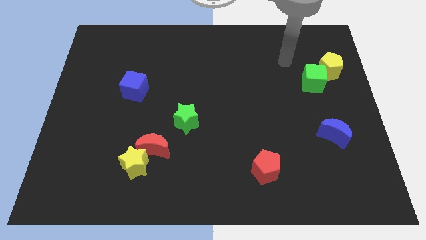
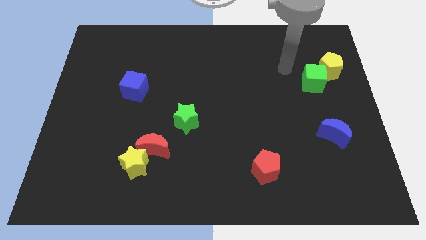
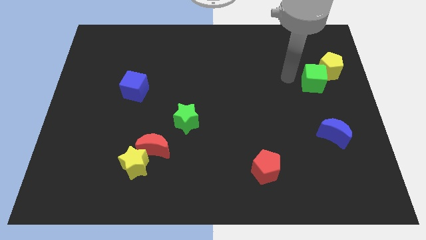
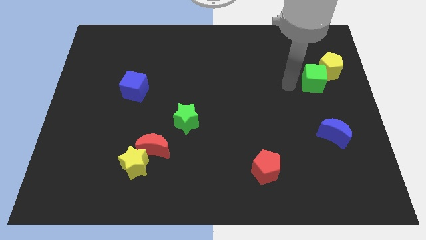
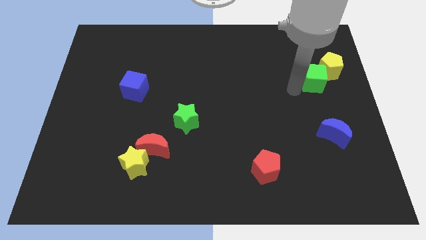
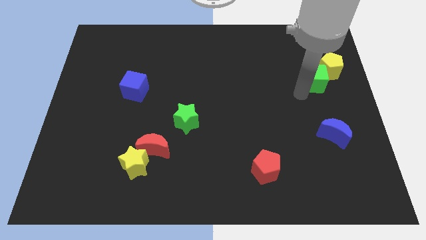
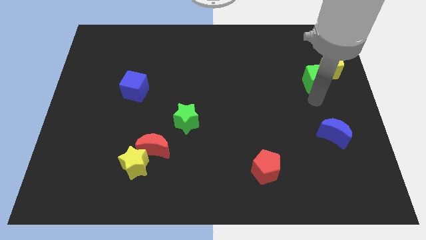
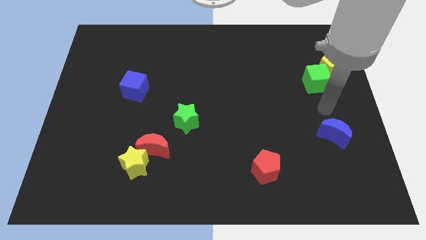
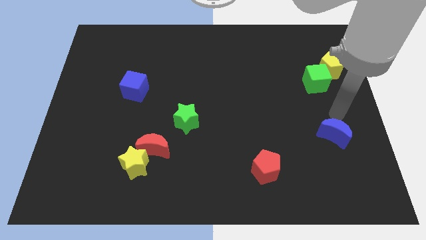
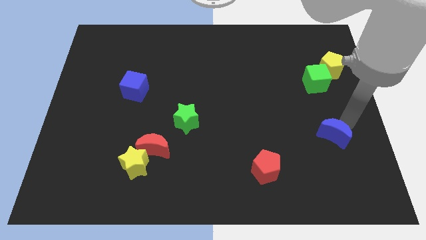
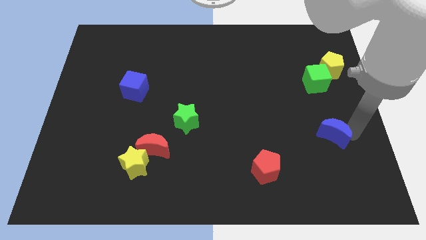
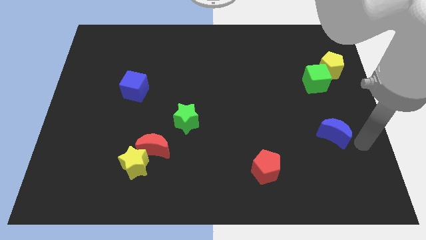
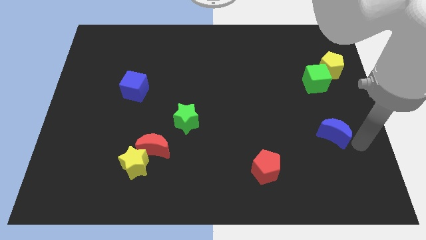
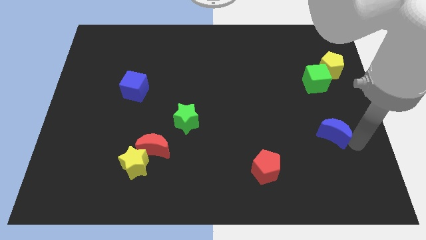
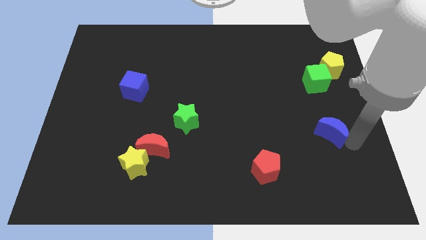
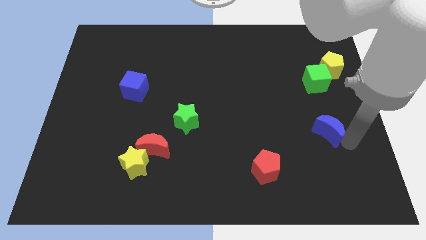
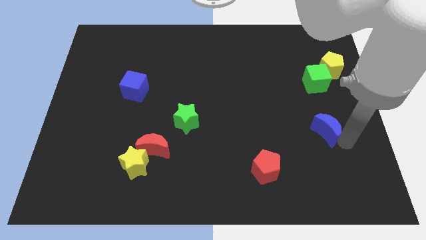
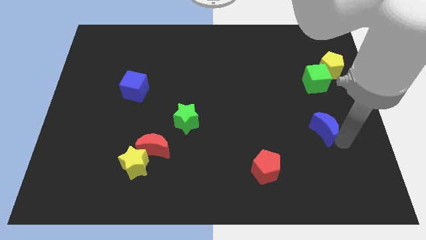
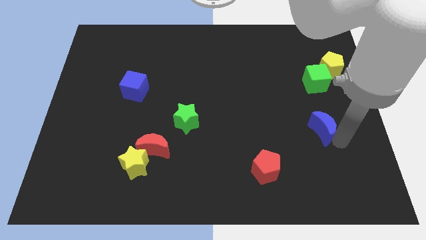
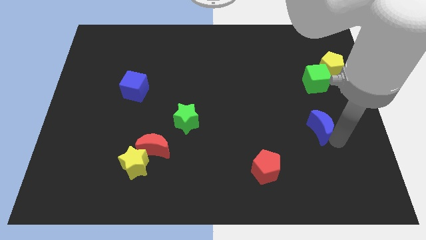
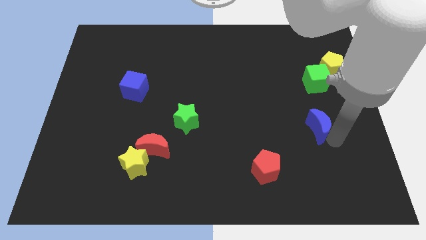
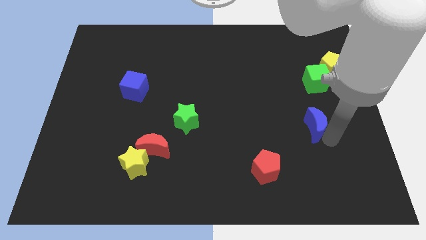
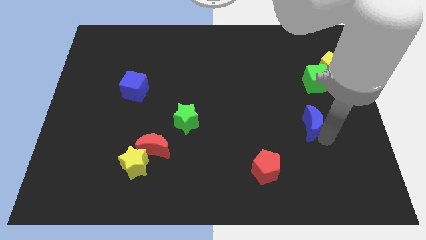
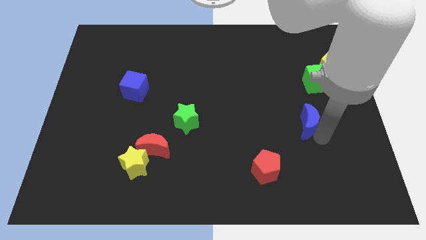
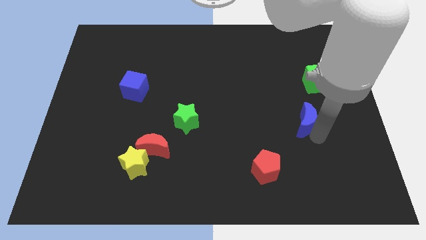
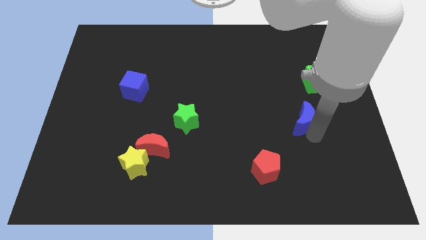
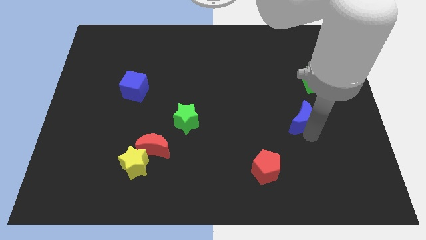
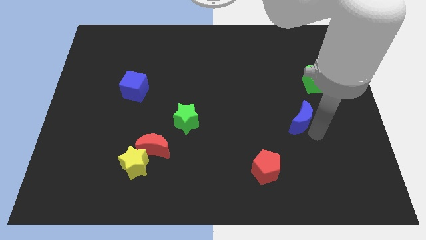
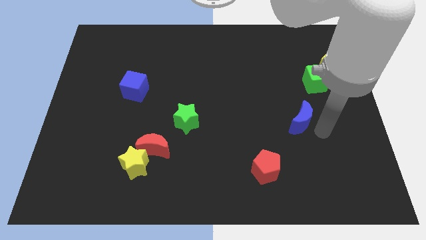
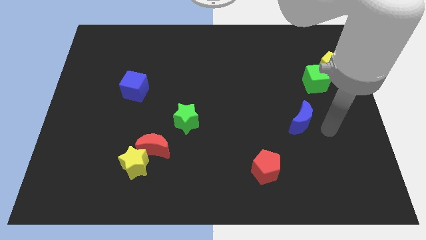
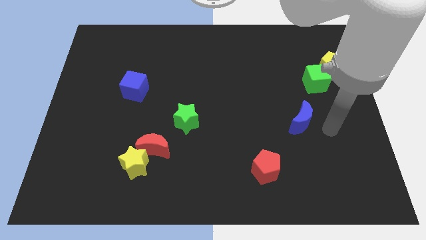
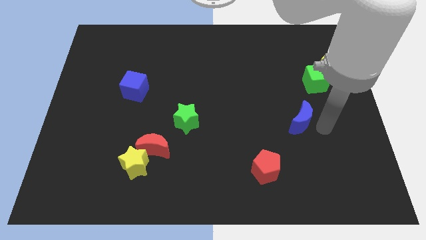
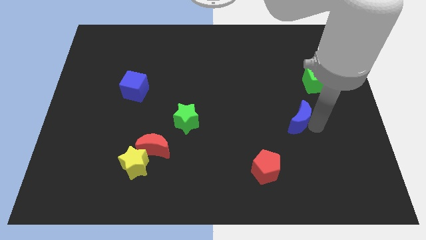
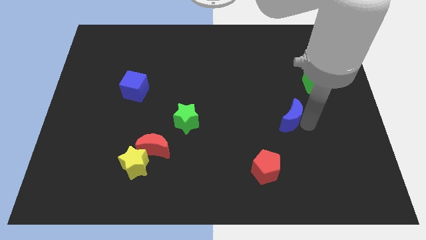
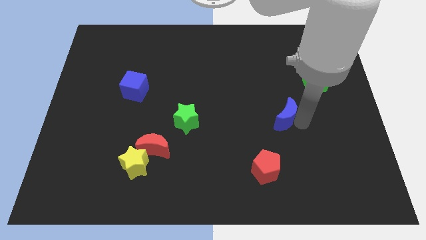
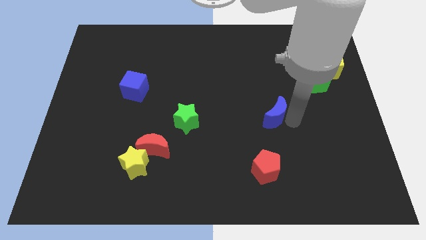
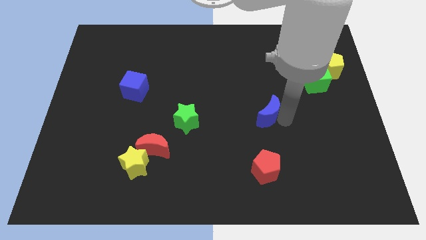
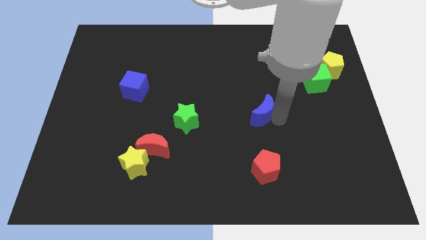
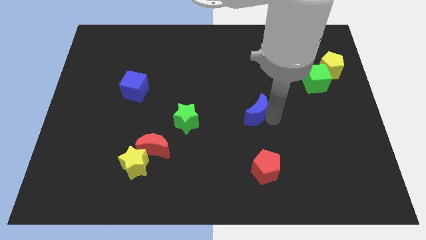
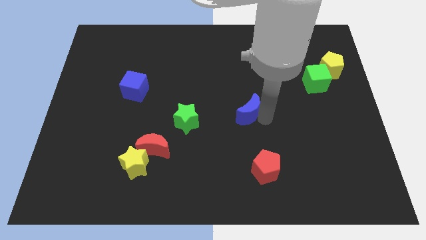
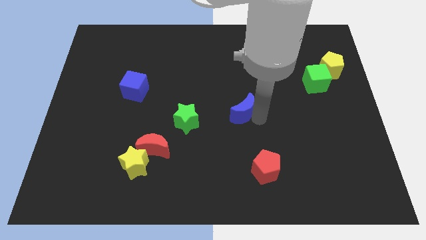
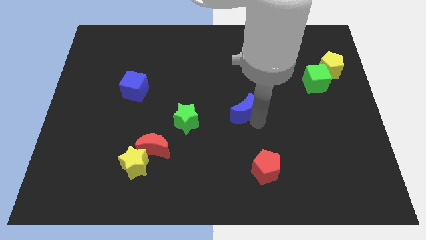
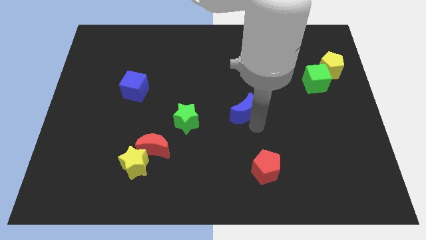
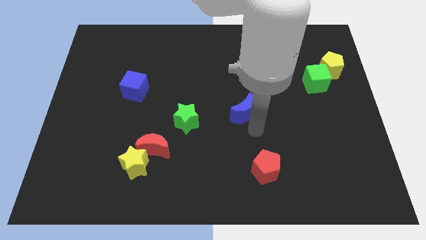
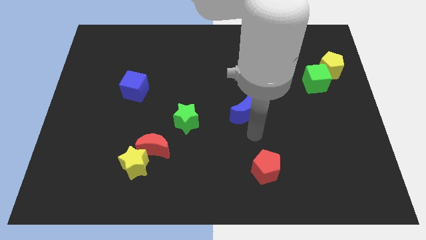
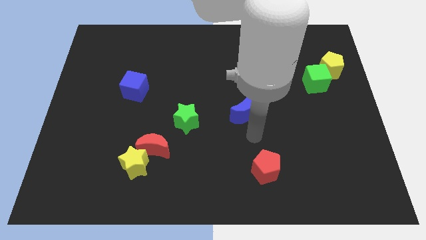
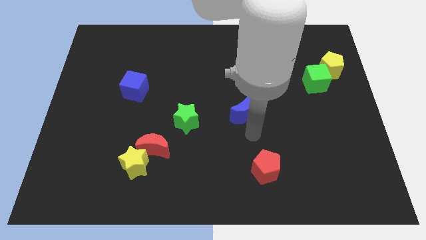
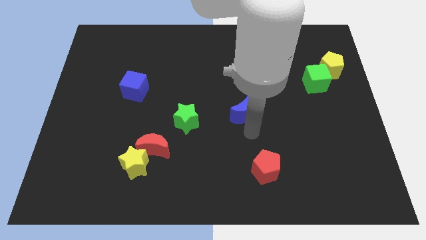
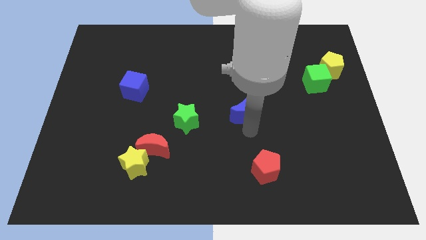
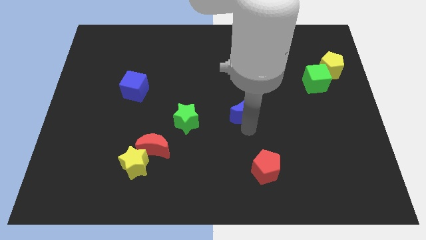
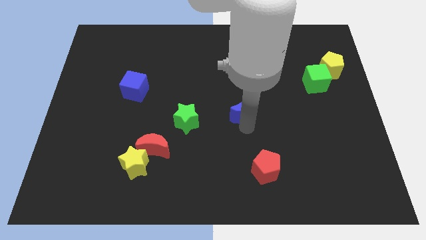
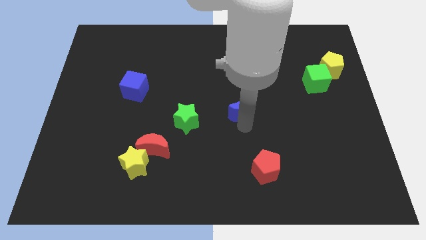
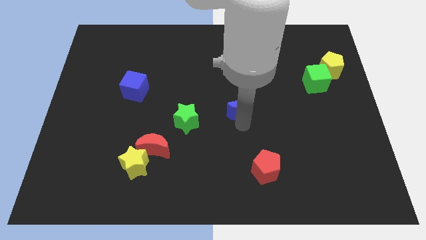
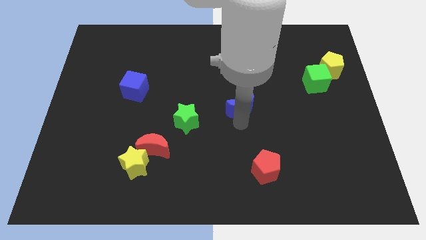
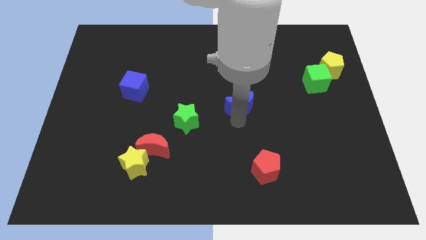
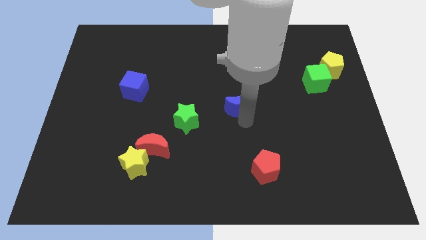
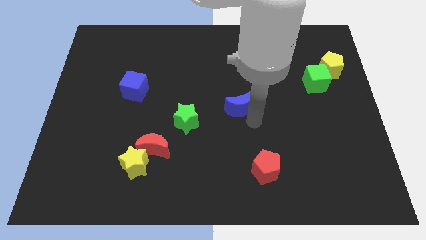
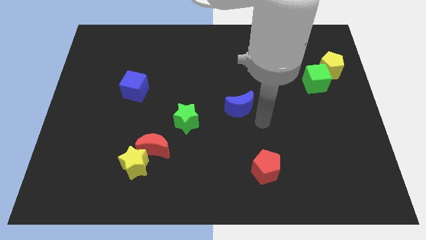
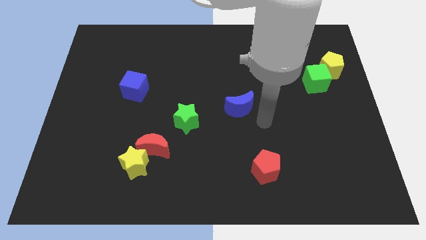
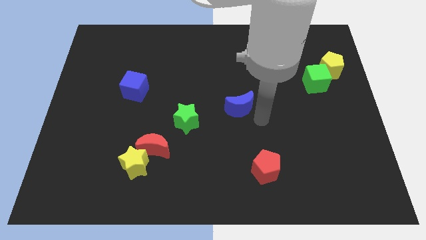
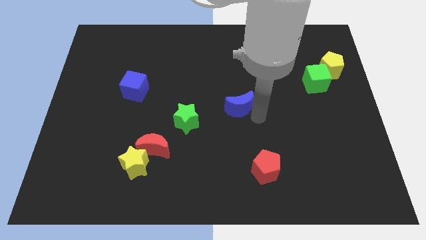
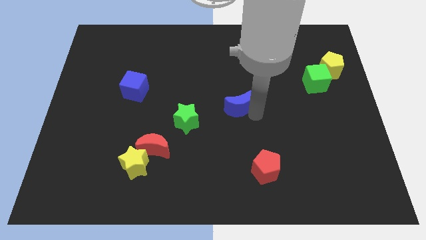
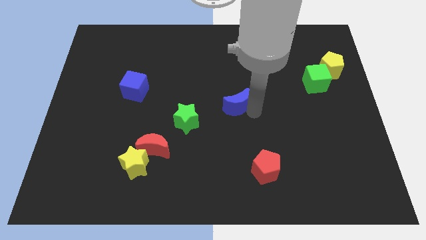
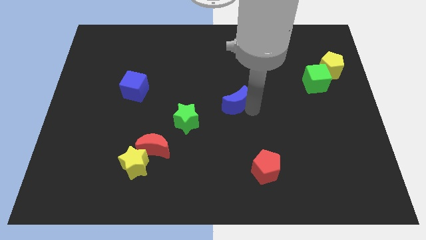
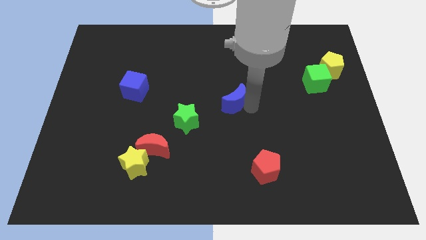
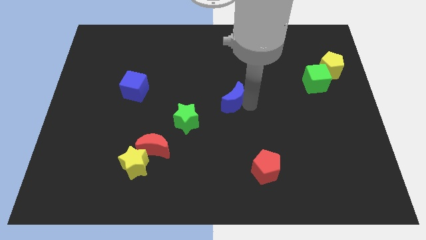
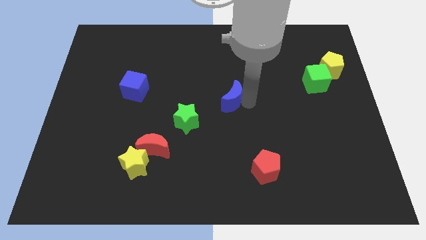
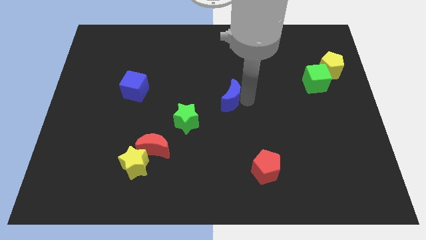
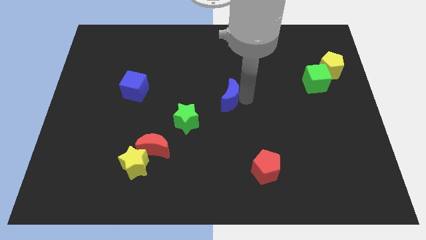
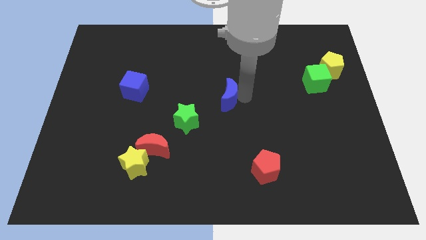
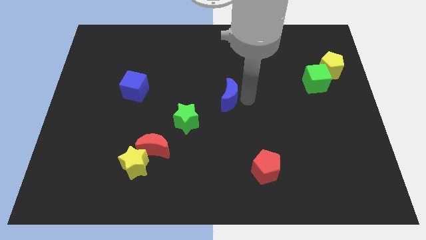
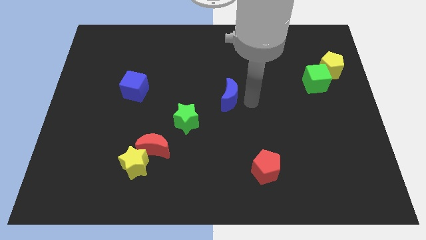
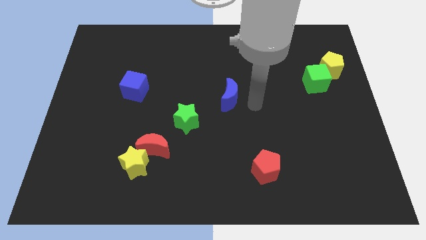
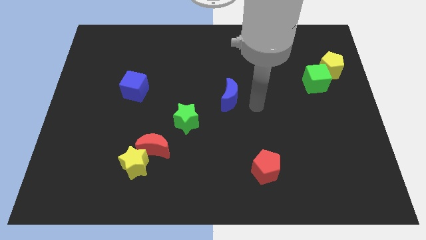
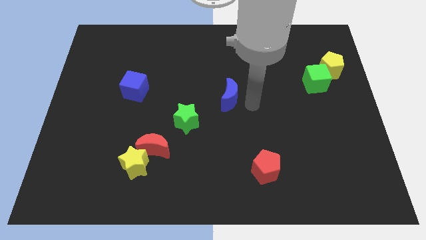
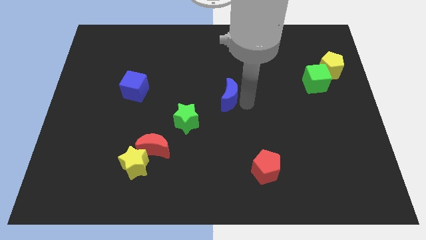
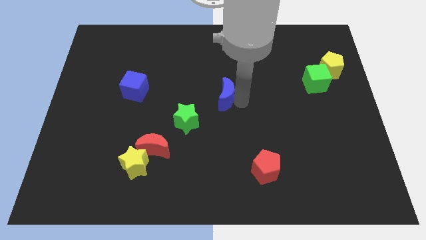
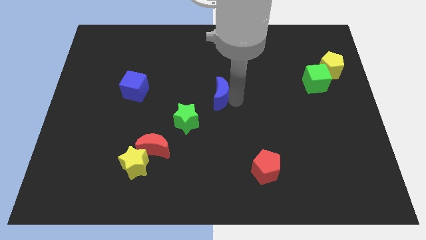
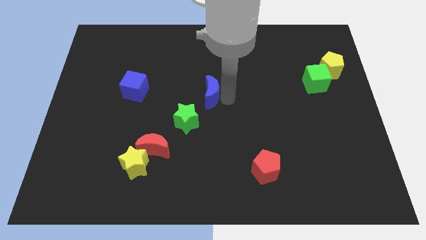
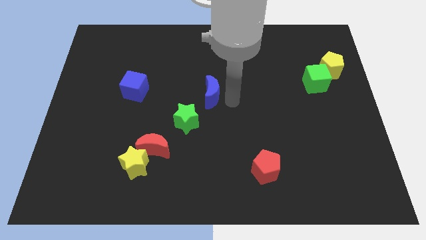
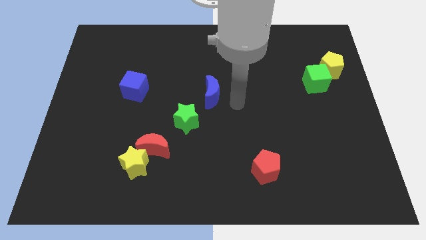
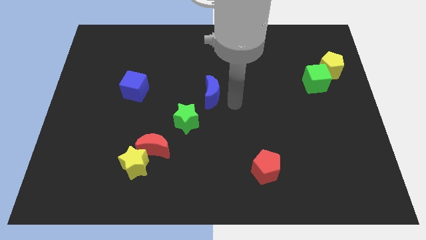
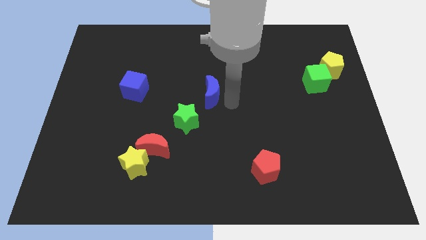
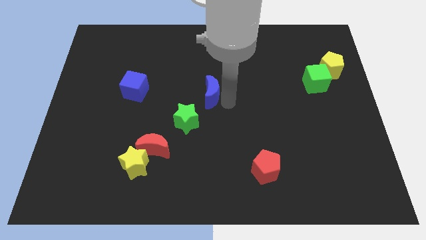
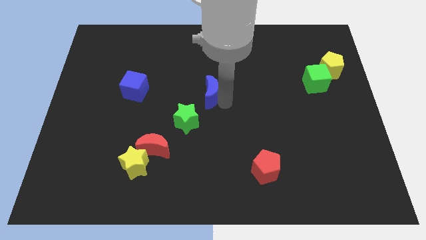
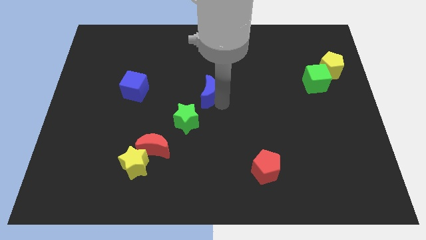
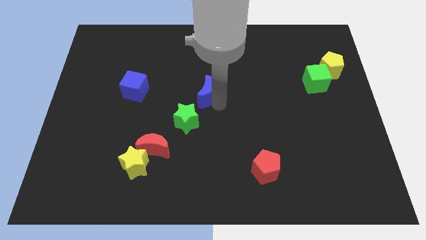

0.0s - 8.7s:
slide the blue moon to the top side of the green star
